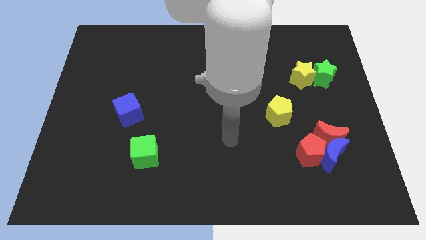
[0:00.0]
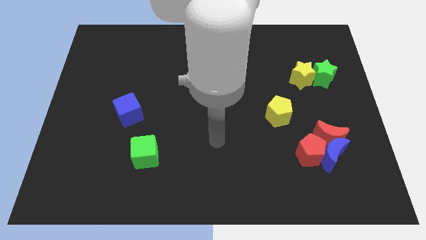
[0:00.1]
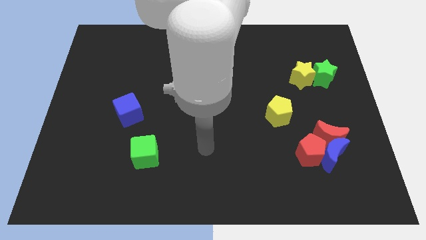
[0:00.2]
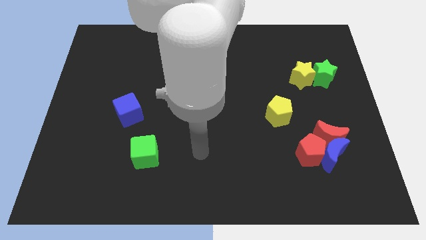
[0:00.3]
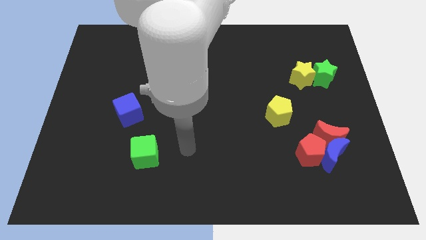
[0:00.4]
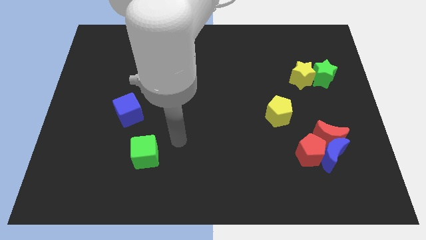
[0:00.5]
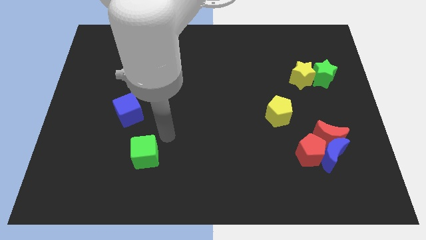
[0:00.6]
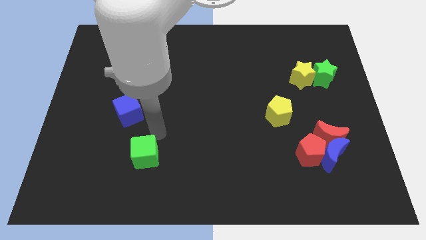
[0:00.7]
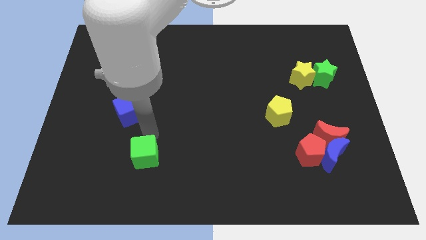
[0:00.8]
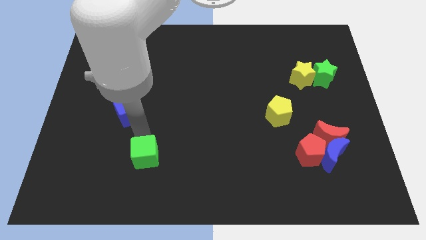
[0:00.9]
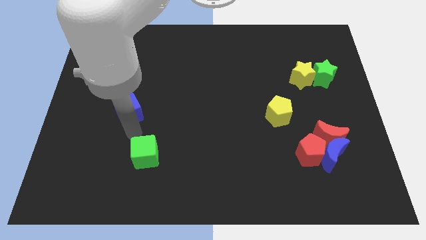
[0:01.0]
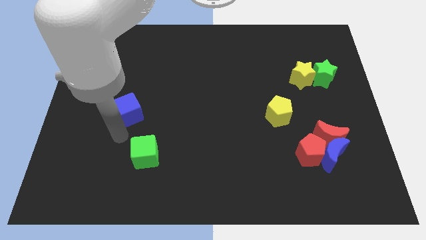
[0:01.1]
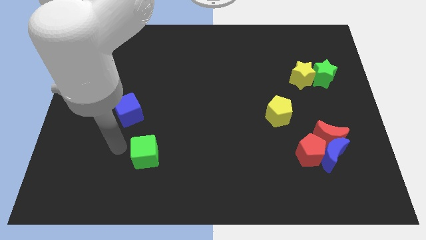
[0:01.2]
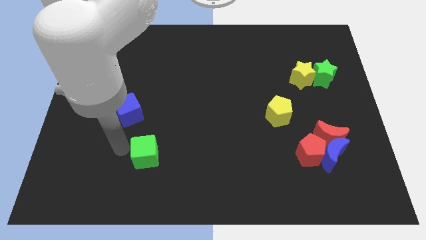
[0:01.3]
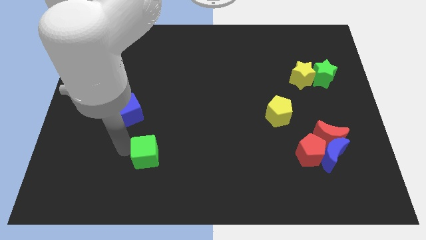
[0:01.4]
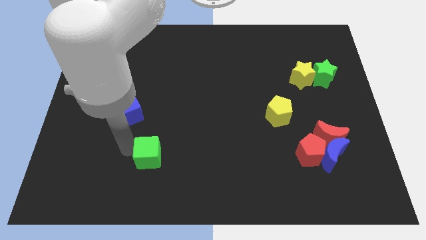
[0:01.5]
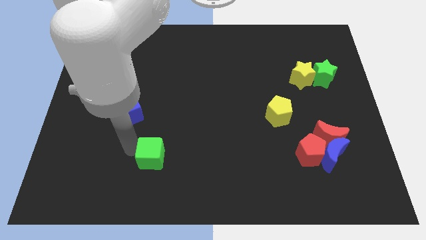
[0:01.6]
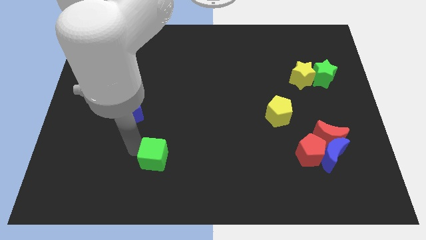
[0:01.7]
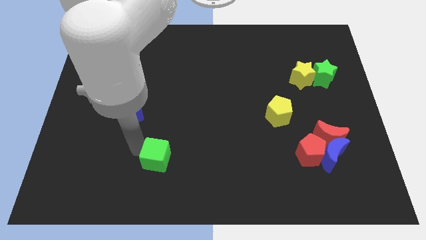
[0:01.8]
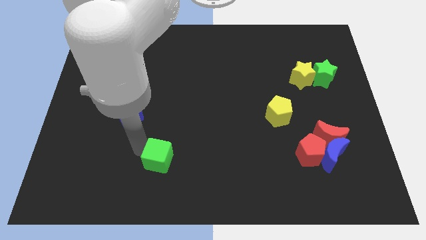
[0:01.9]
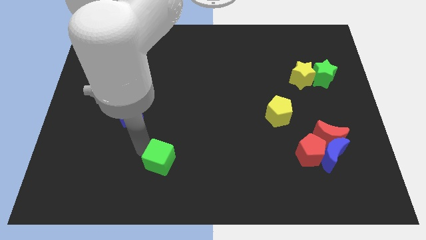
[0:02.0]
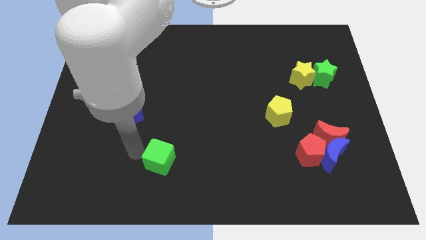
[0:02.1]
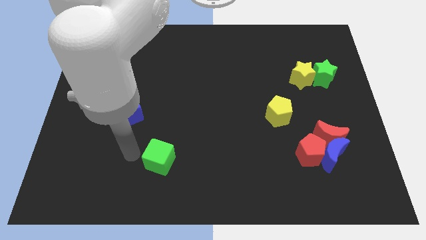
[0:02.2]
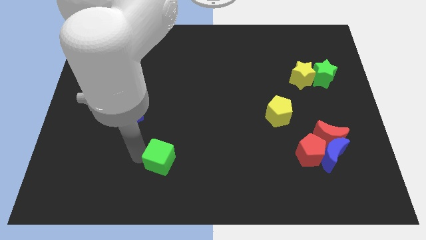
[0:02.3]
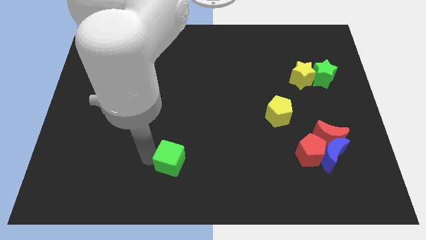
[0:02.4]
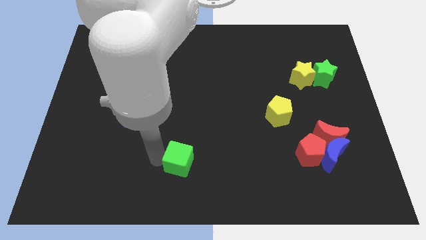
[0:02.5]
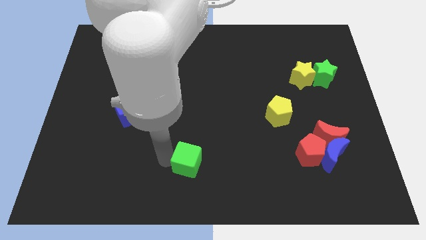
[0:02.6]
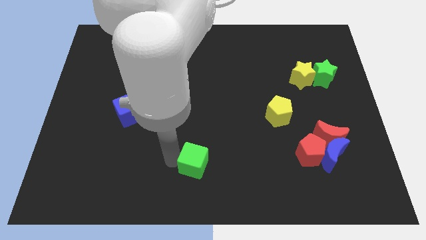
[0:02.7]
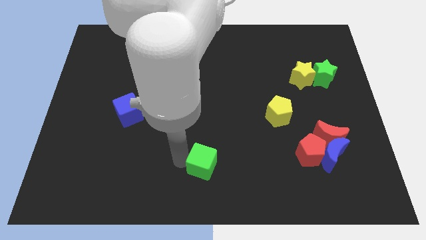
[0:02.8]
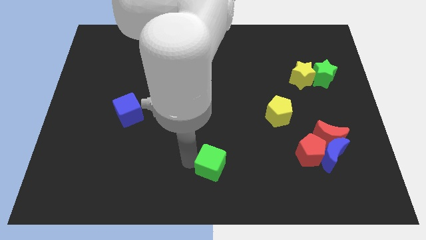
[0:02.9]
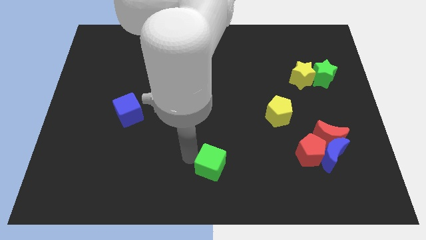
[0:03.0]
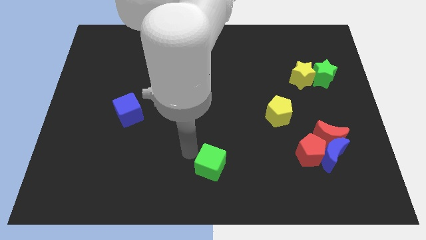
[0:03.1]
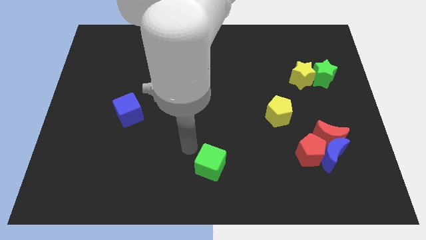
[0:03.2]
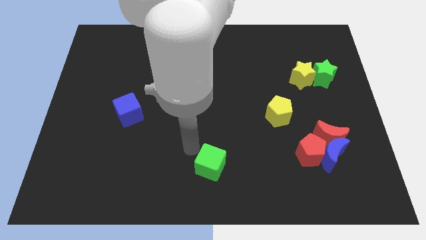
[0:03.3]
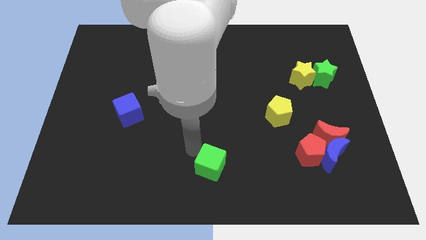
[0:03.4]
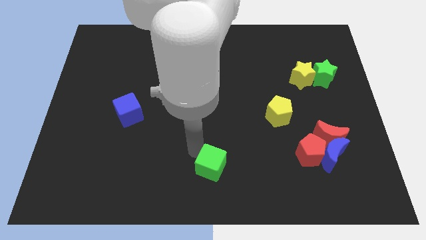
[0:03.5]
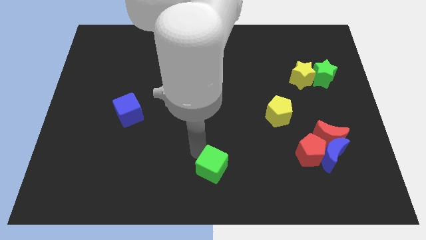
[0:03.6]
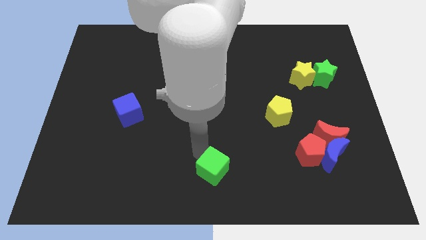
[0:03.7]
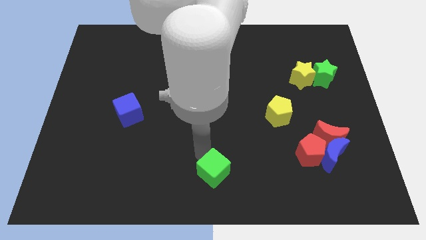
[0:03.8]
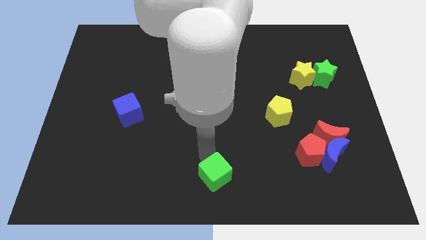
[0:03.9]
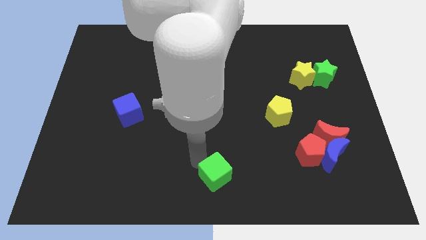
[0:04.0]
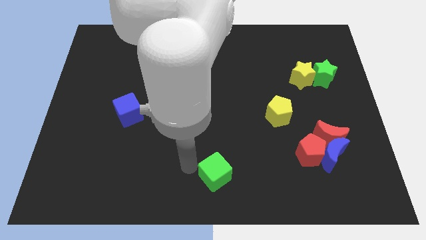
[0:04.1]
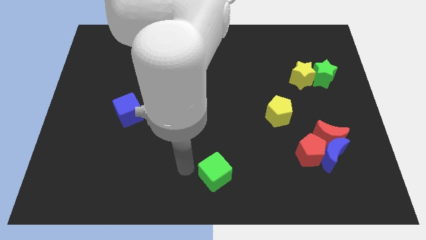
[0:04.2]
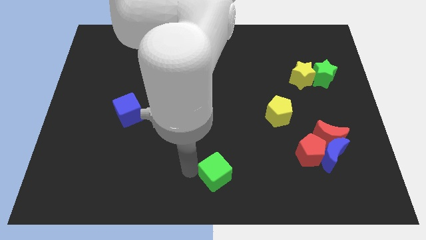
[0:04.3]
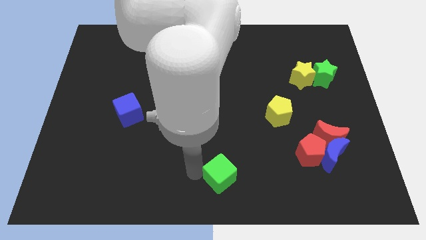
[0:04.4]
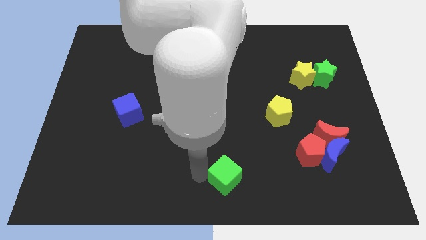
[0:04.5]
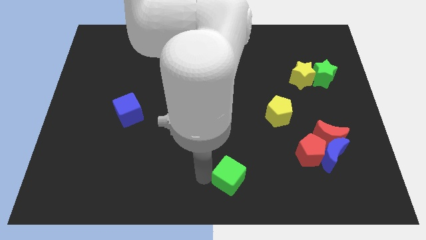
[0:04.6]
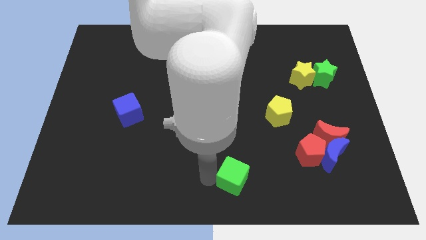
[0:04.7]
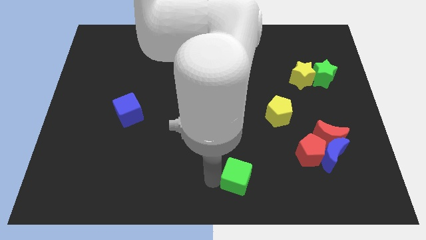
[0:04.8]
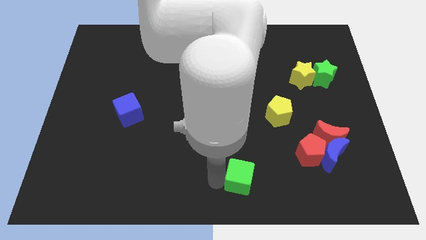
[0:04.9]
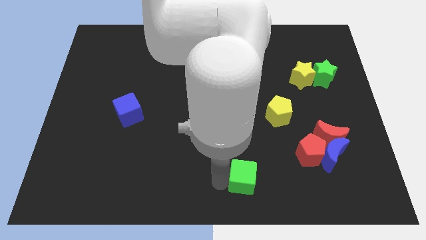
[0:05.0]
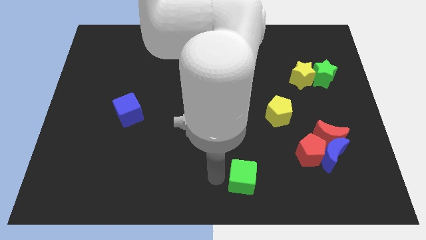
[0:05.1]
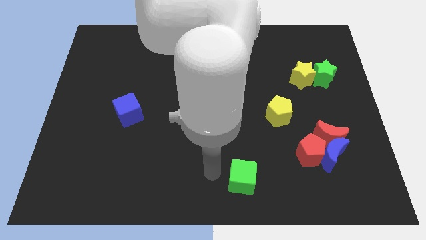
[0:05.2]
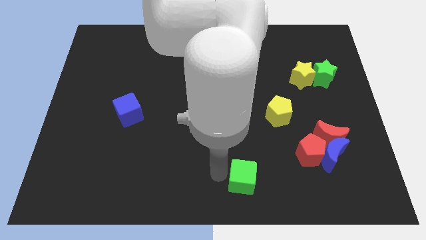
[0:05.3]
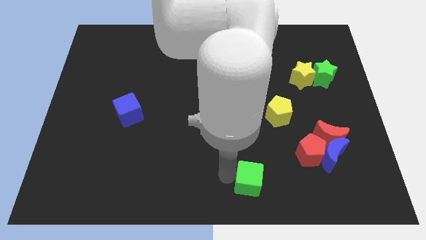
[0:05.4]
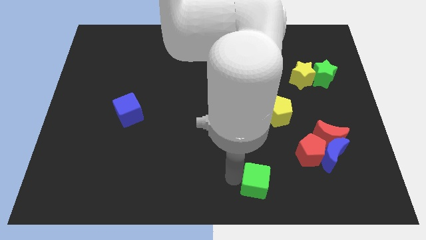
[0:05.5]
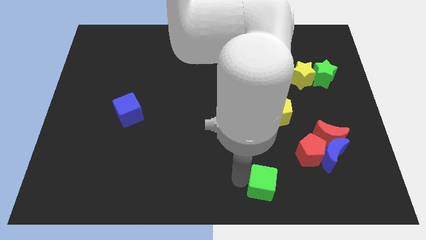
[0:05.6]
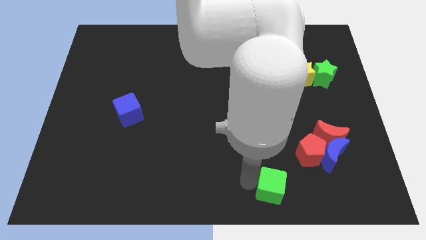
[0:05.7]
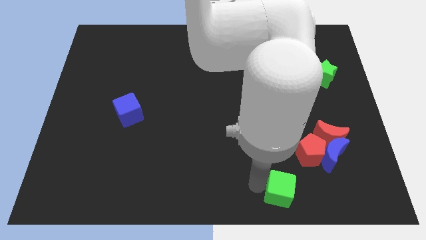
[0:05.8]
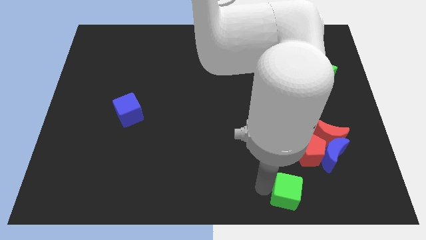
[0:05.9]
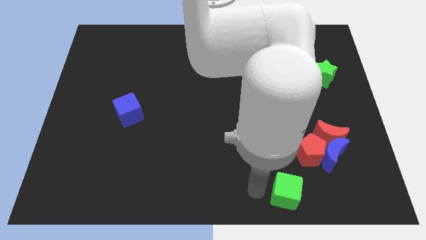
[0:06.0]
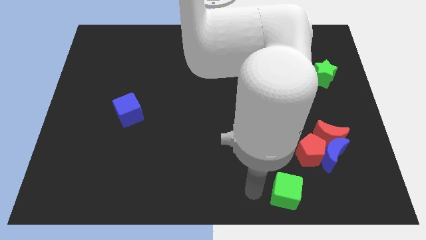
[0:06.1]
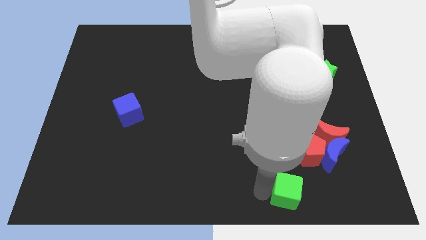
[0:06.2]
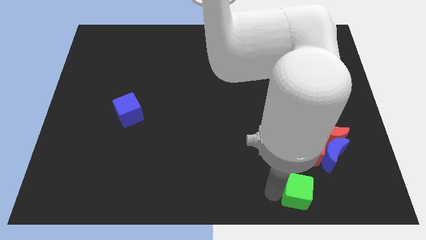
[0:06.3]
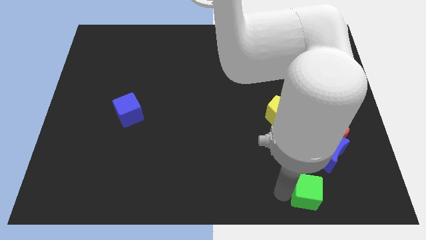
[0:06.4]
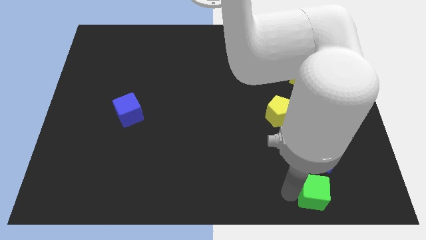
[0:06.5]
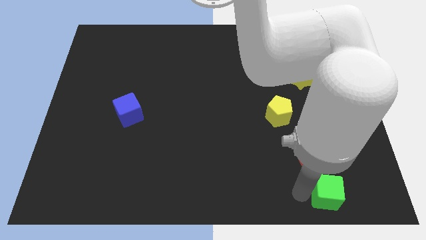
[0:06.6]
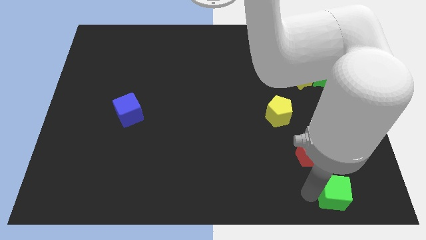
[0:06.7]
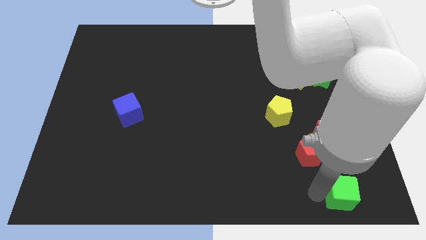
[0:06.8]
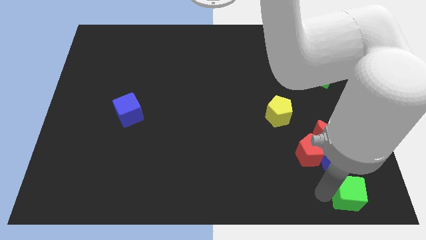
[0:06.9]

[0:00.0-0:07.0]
push the green cube to the bottom right of the board
